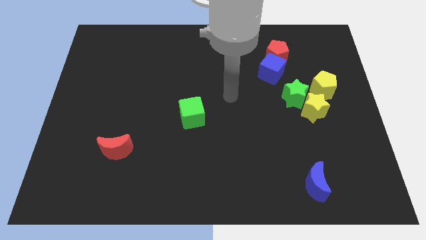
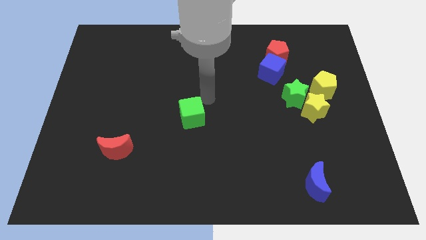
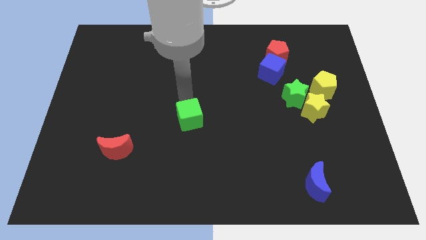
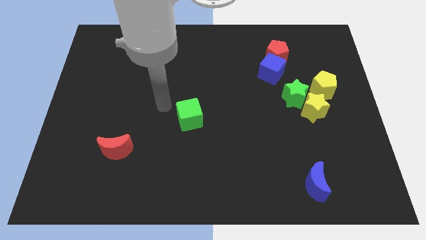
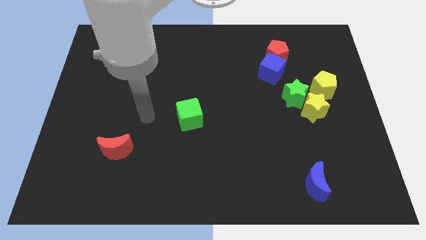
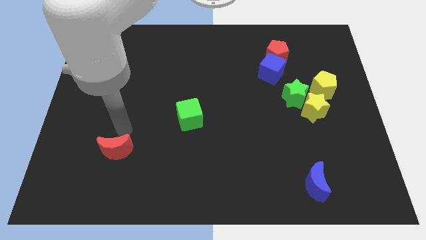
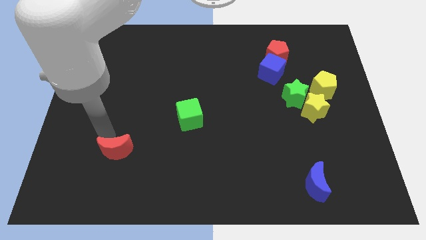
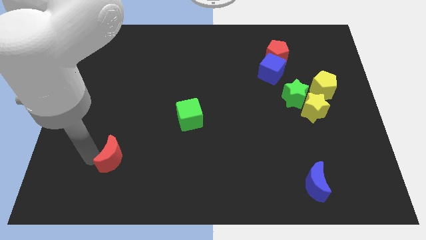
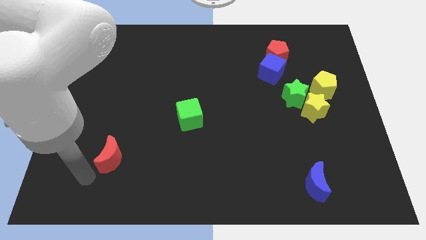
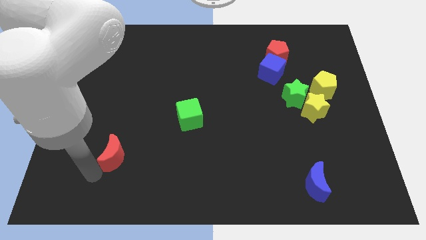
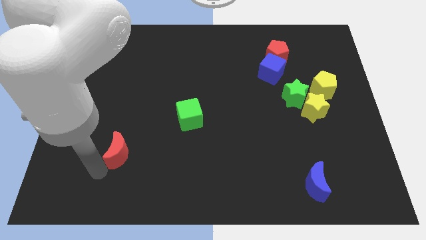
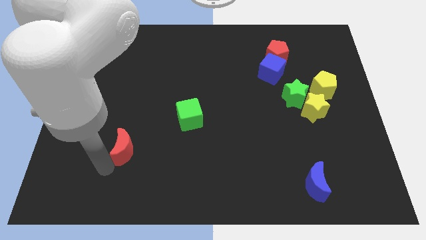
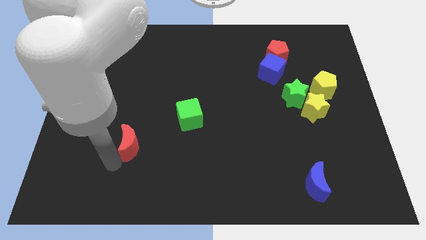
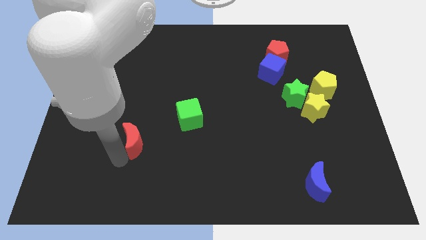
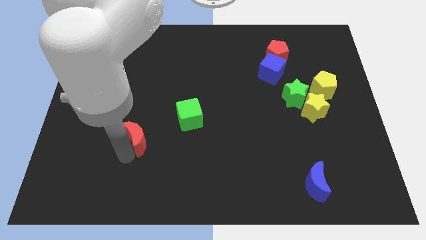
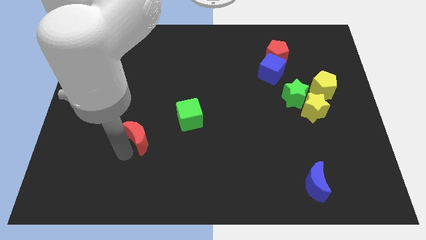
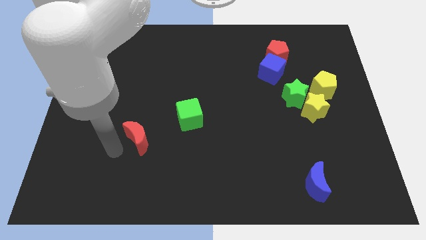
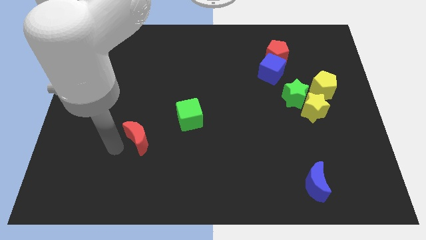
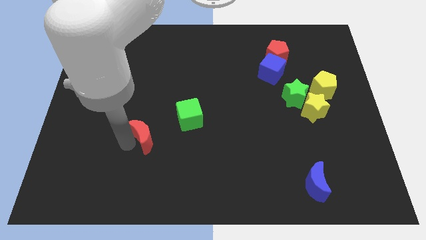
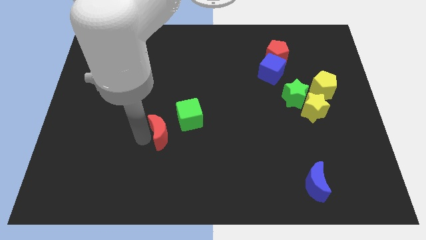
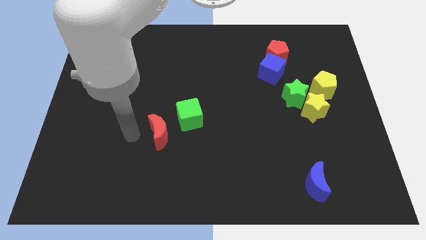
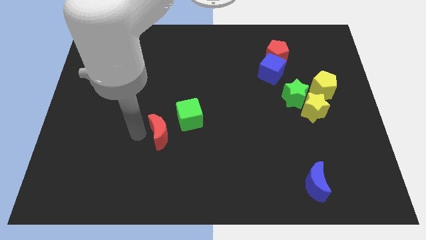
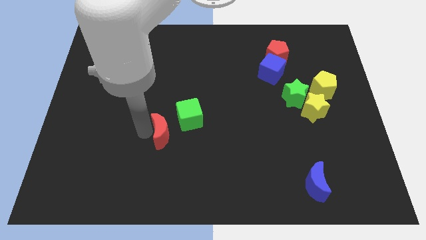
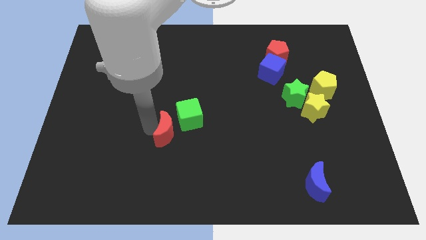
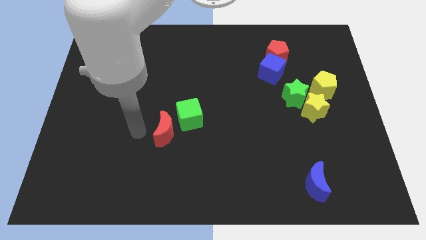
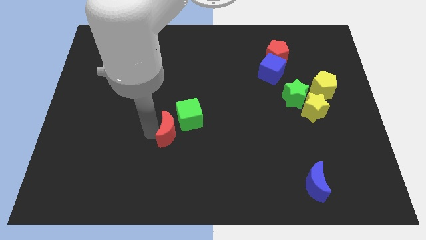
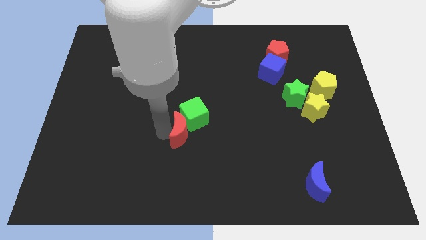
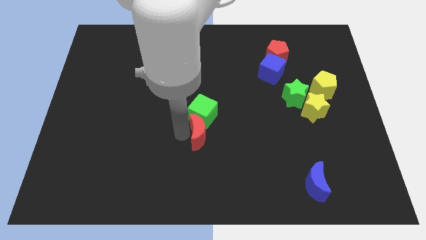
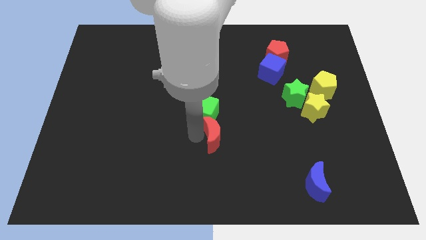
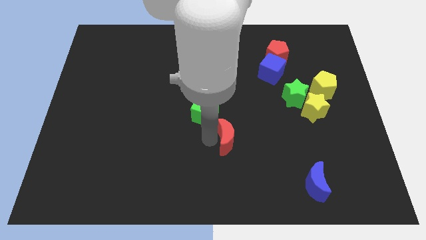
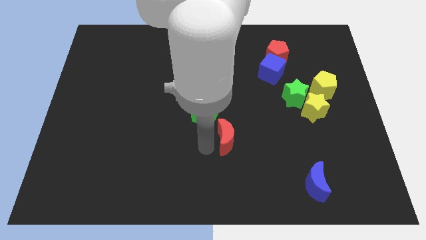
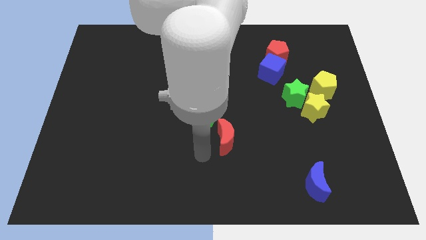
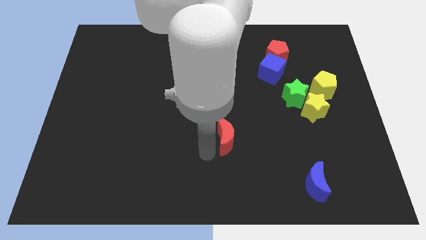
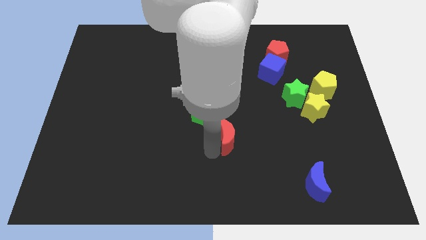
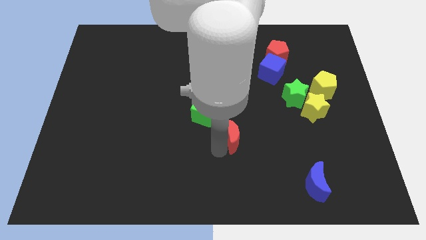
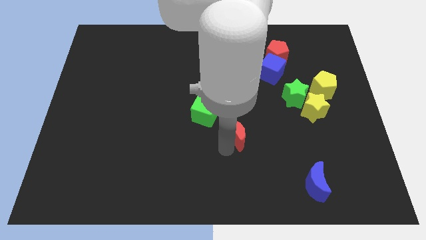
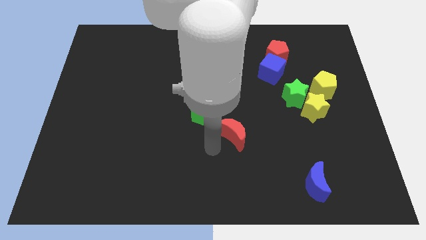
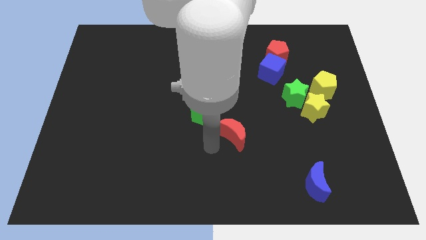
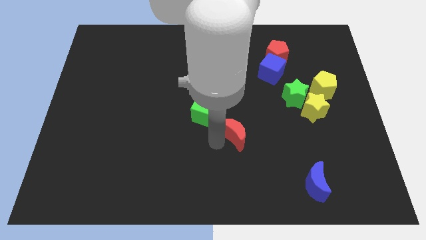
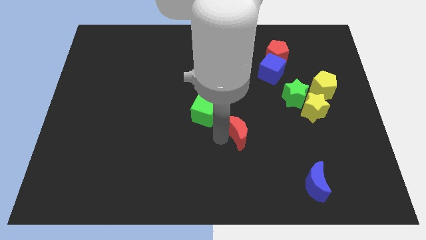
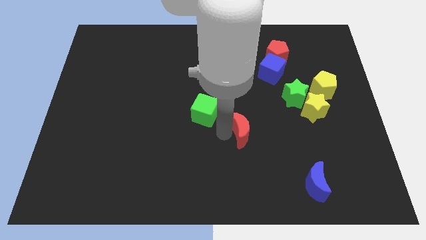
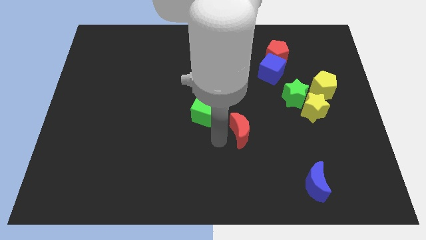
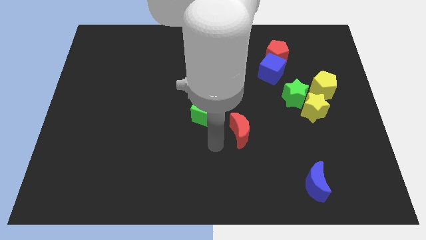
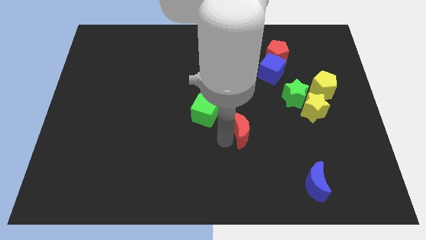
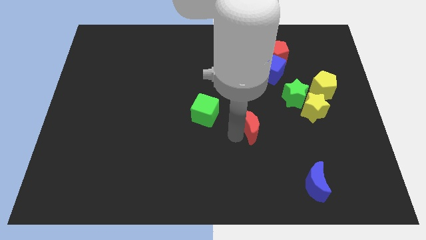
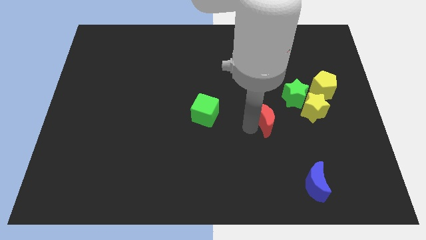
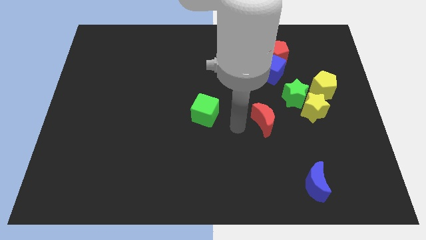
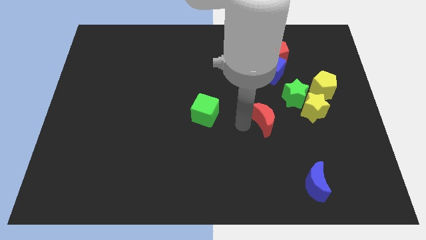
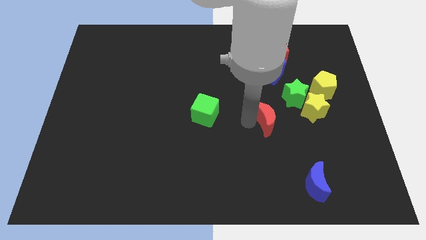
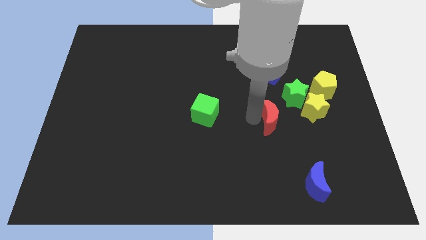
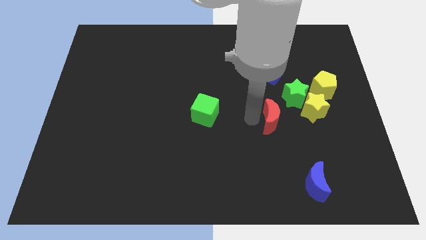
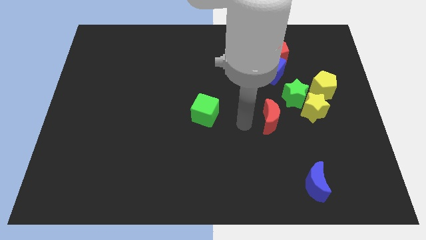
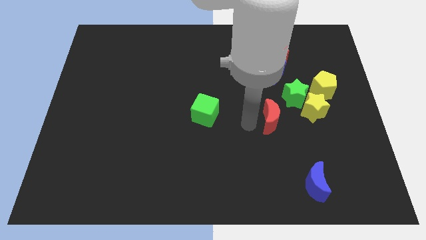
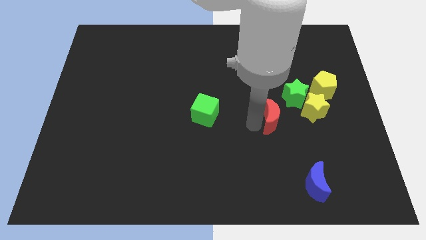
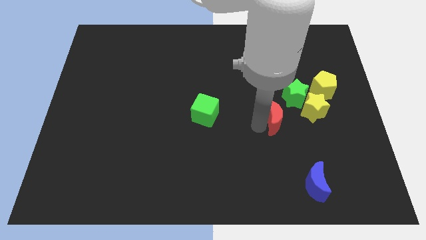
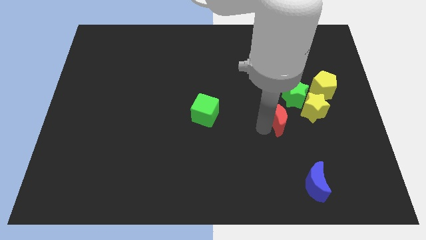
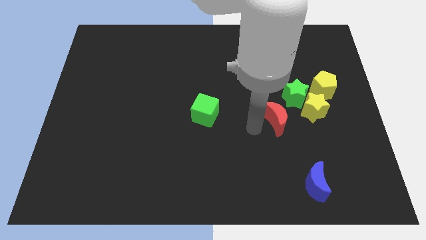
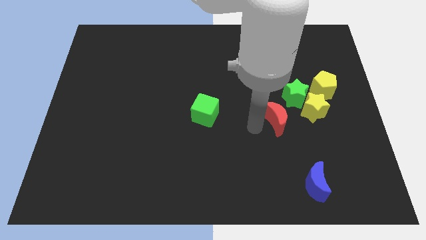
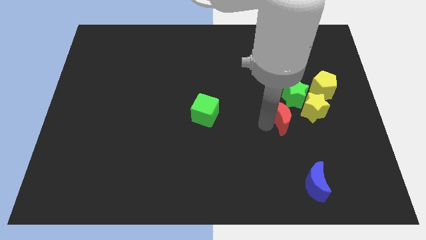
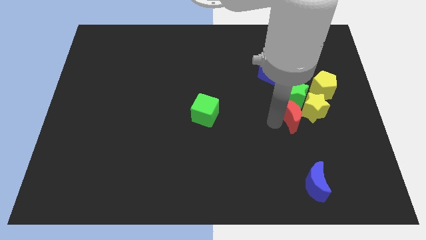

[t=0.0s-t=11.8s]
push the red moon next to the yellow star

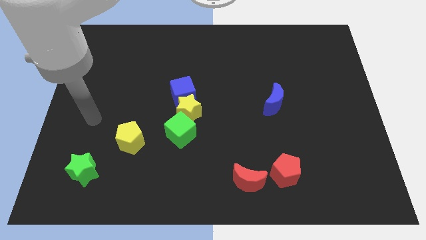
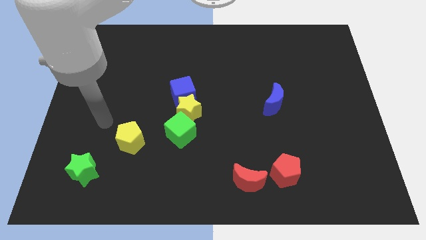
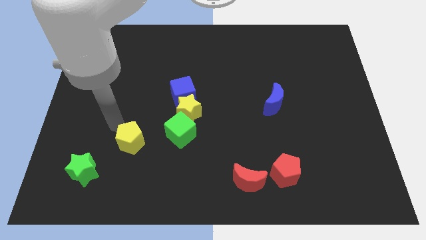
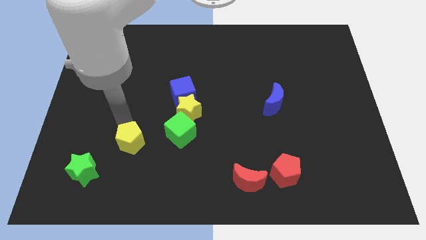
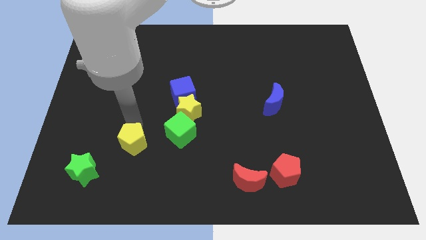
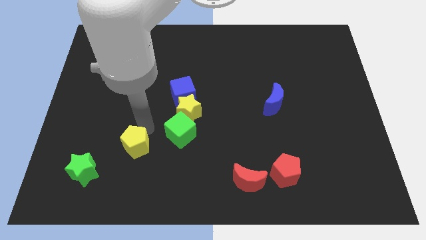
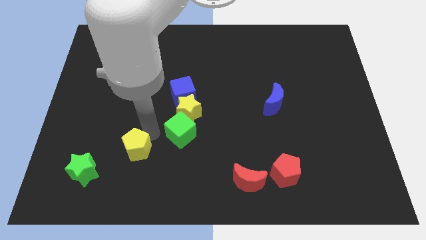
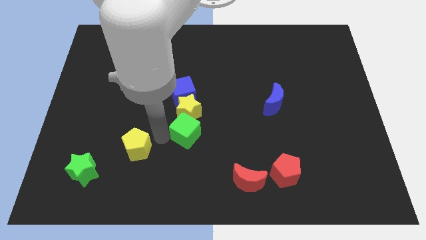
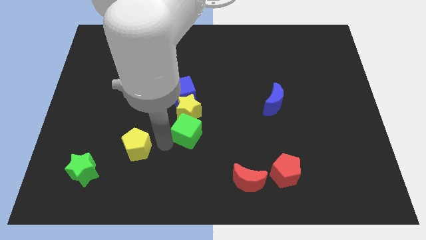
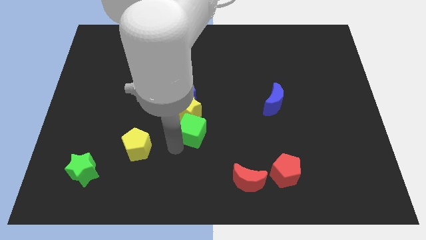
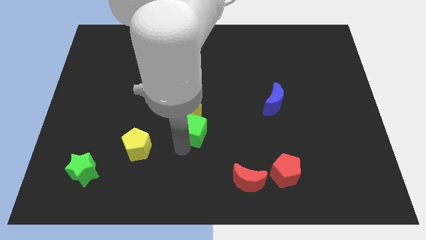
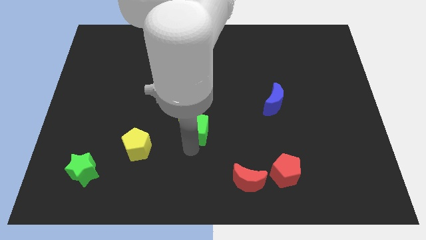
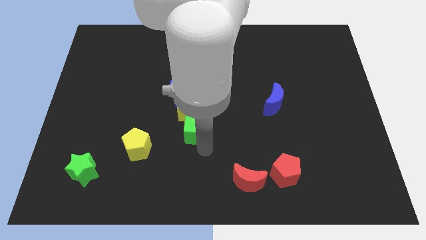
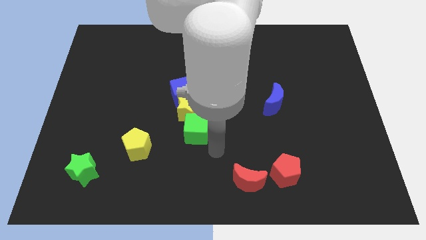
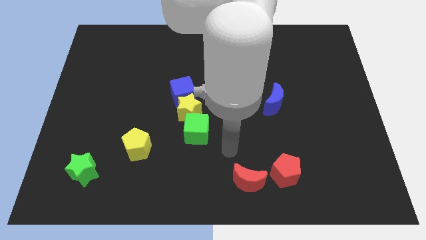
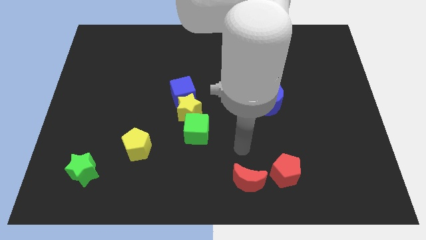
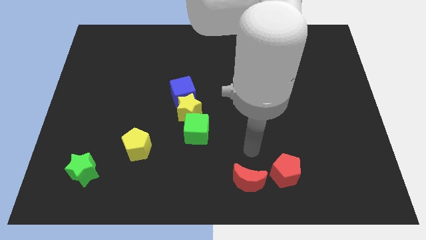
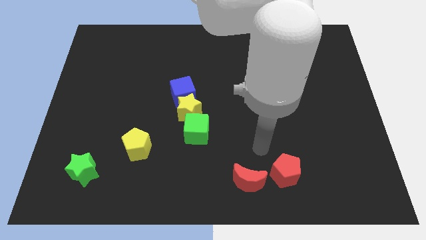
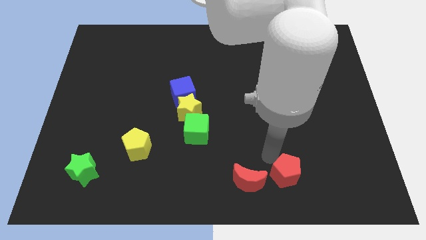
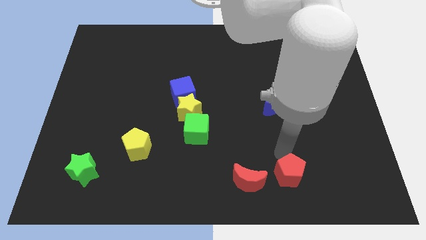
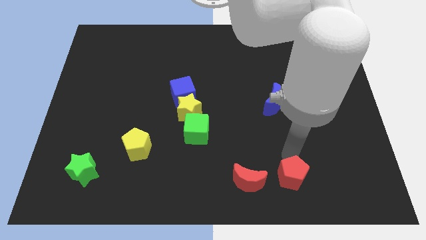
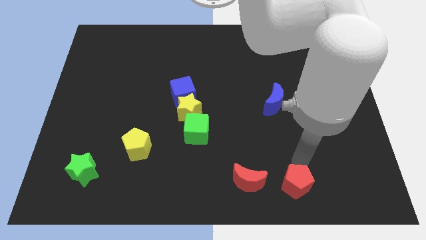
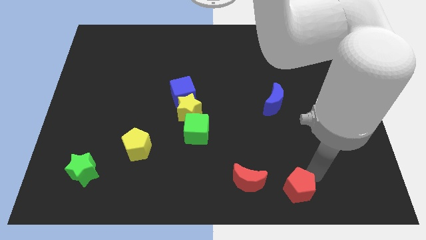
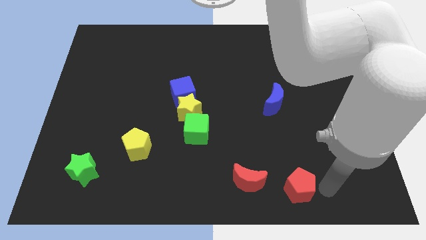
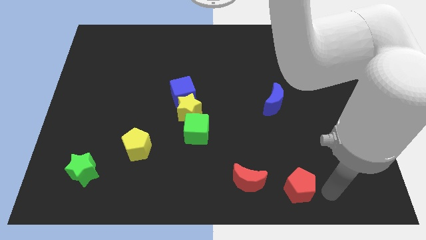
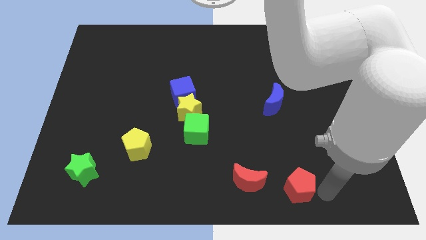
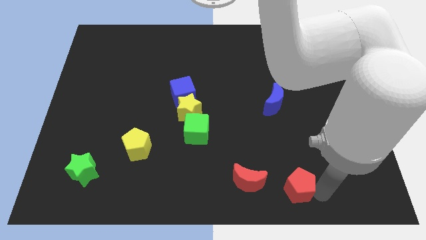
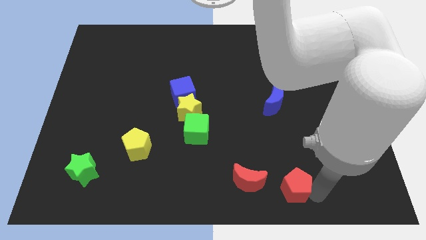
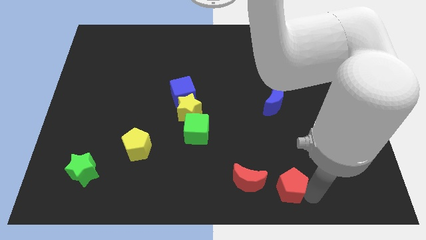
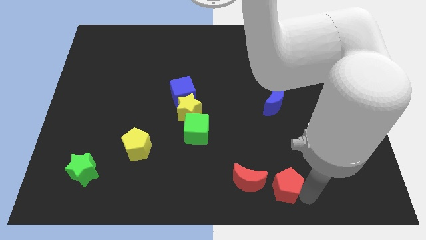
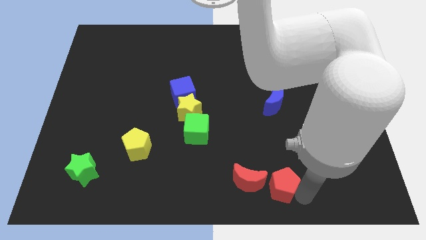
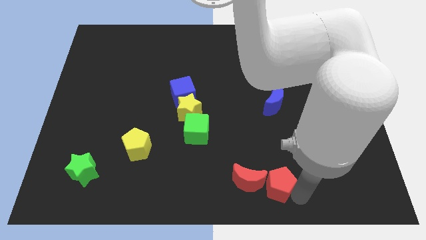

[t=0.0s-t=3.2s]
put the red pentagon to the red moon
